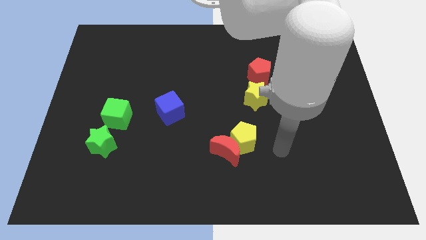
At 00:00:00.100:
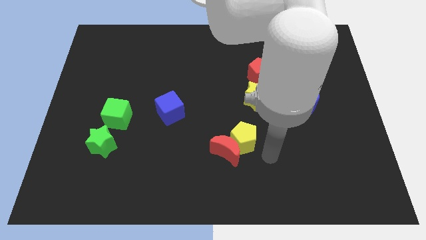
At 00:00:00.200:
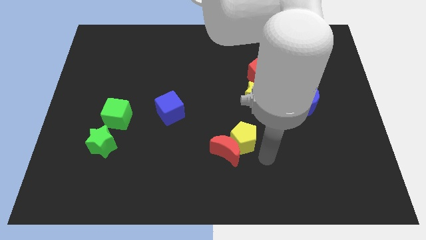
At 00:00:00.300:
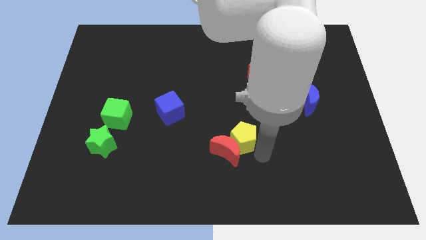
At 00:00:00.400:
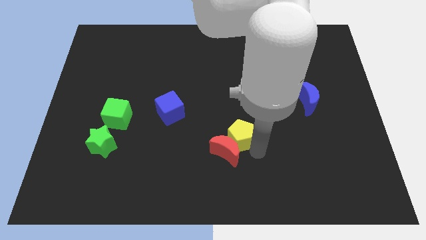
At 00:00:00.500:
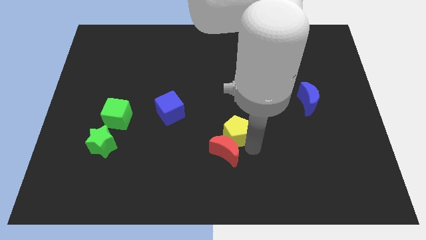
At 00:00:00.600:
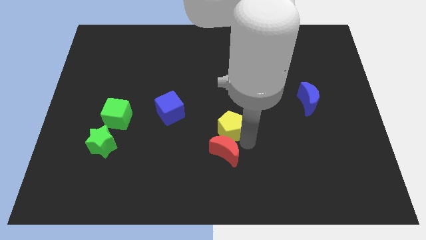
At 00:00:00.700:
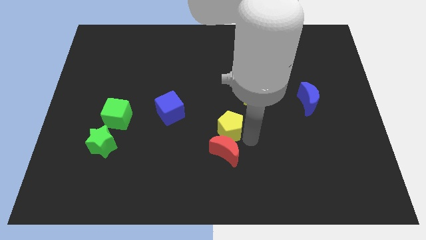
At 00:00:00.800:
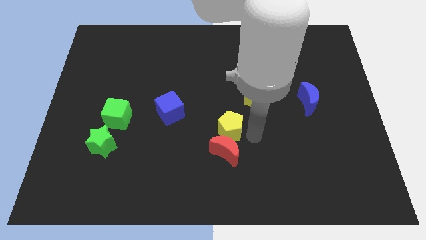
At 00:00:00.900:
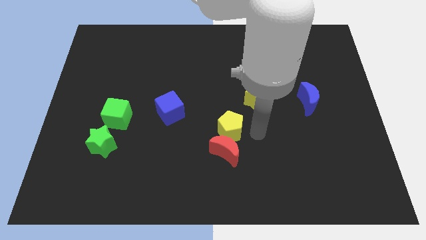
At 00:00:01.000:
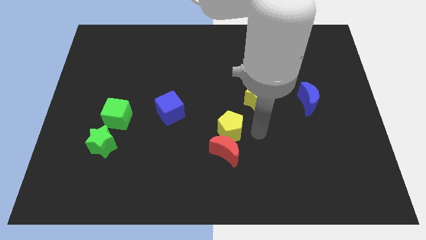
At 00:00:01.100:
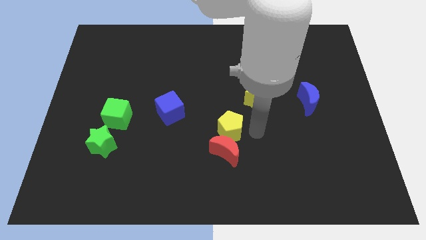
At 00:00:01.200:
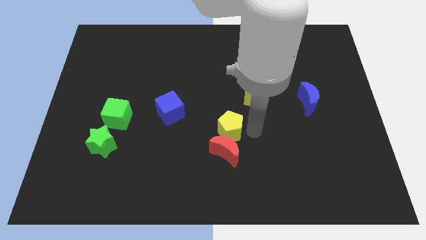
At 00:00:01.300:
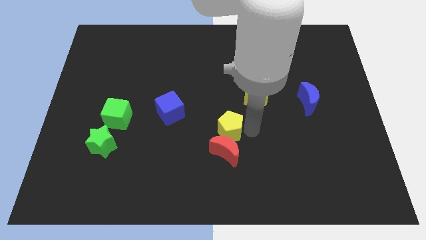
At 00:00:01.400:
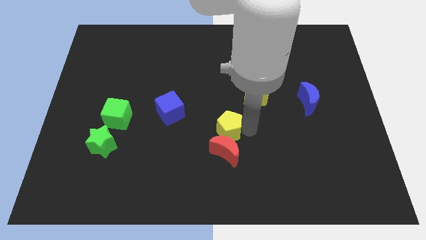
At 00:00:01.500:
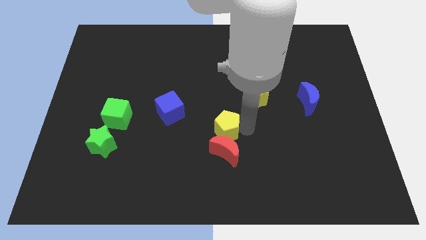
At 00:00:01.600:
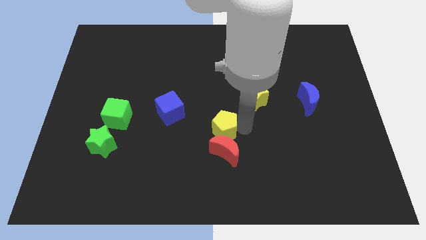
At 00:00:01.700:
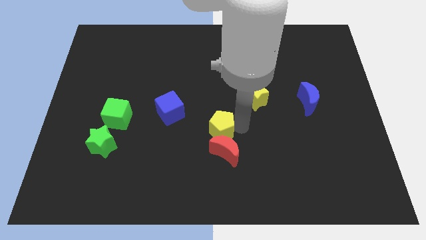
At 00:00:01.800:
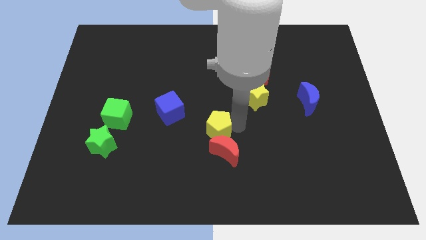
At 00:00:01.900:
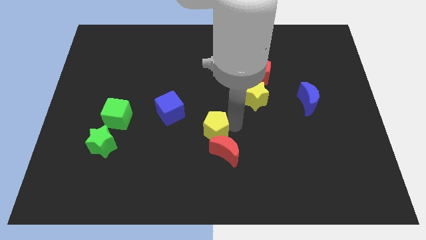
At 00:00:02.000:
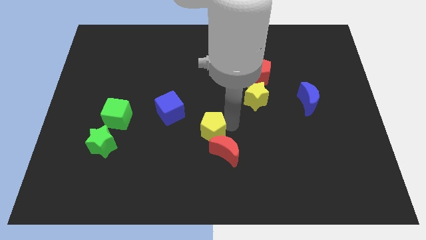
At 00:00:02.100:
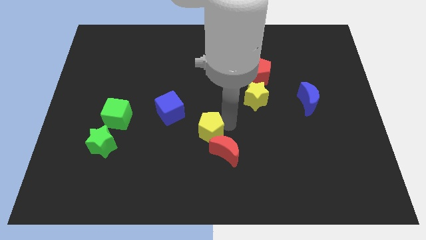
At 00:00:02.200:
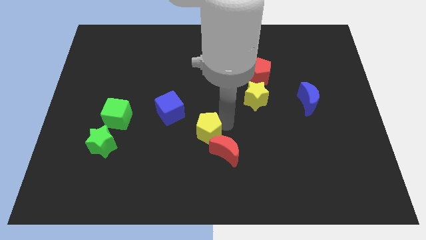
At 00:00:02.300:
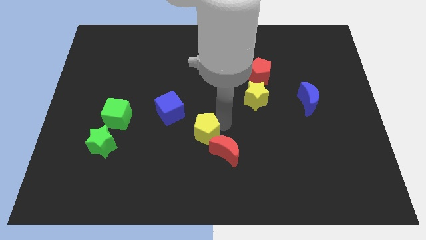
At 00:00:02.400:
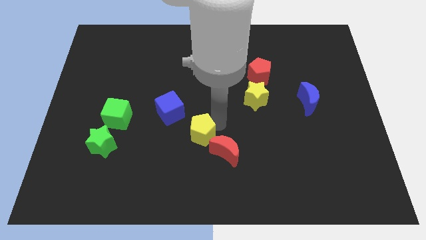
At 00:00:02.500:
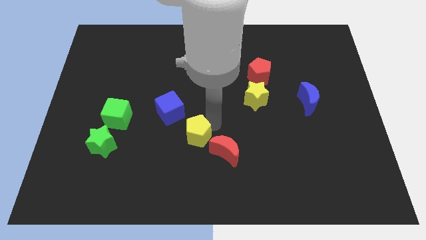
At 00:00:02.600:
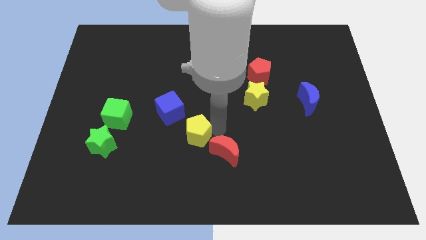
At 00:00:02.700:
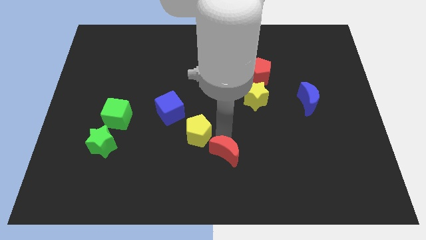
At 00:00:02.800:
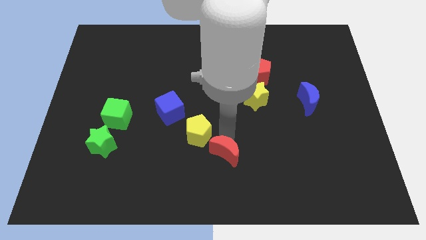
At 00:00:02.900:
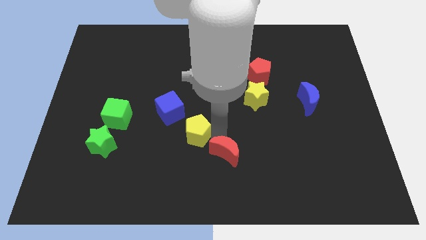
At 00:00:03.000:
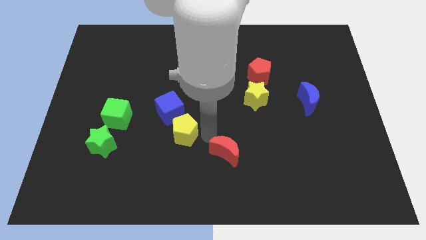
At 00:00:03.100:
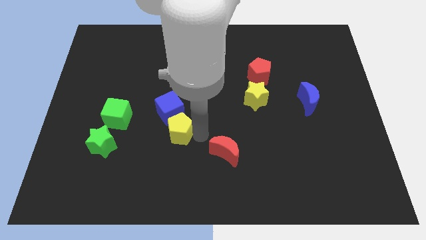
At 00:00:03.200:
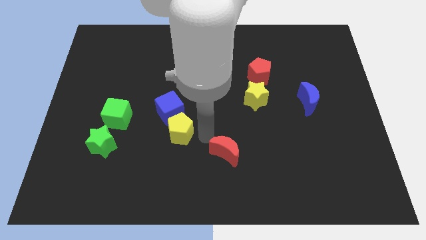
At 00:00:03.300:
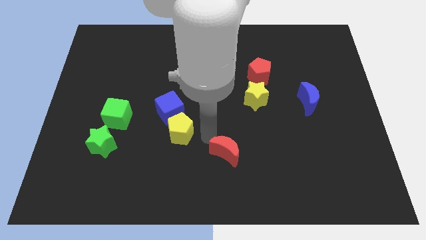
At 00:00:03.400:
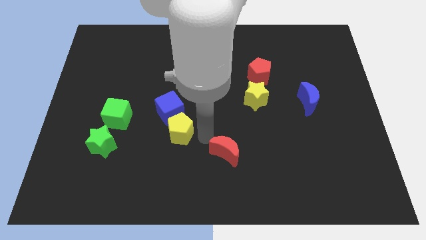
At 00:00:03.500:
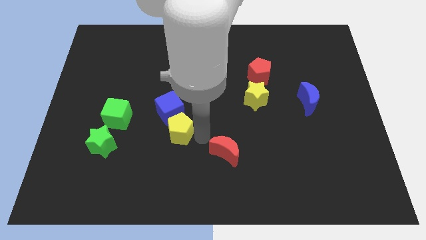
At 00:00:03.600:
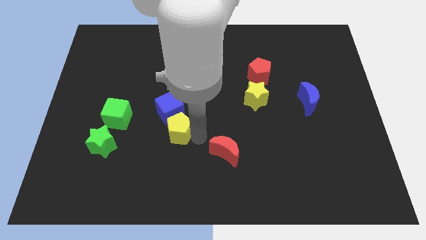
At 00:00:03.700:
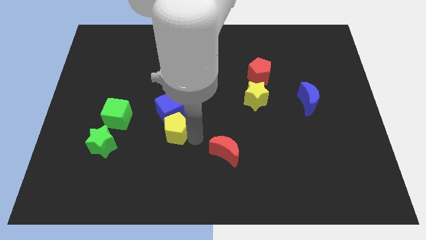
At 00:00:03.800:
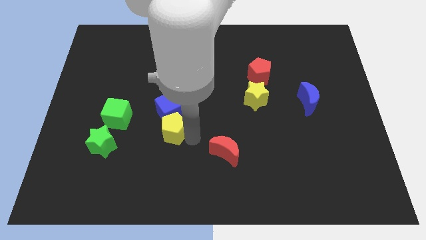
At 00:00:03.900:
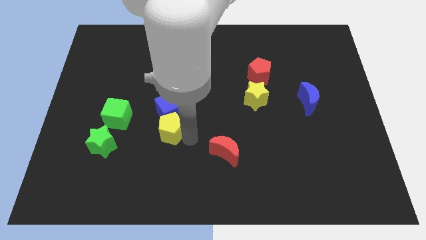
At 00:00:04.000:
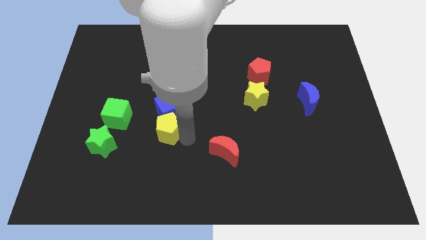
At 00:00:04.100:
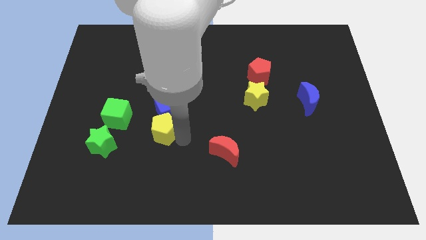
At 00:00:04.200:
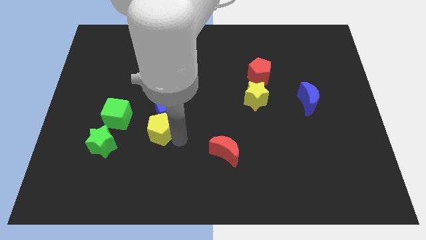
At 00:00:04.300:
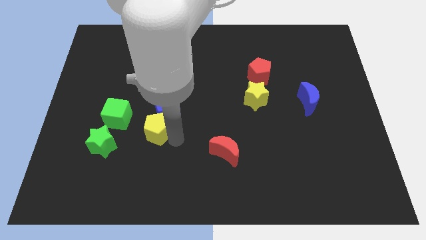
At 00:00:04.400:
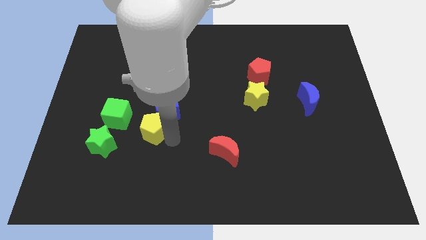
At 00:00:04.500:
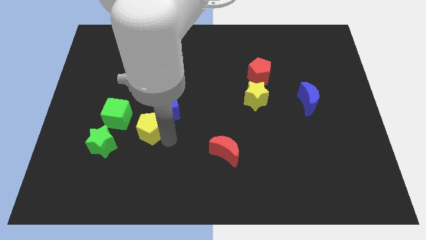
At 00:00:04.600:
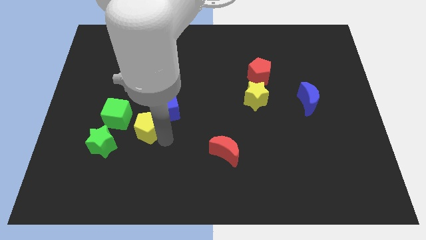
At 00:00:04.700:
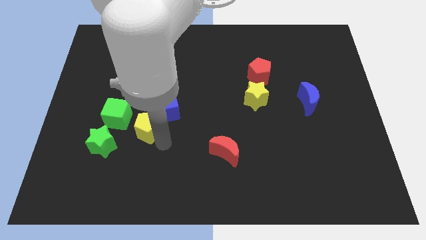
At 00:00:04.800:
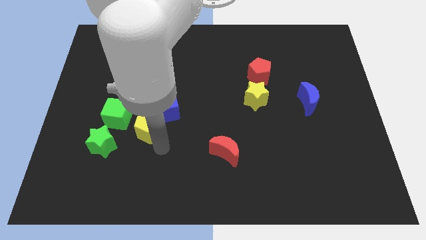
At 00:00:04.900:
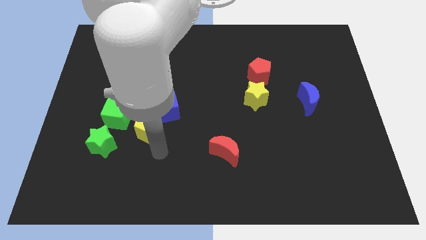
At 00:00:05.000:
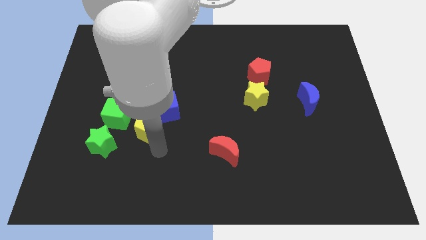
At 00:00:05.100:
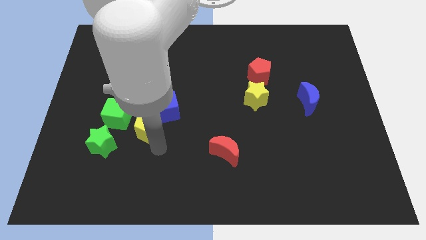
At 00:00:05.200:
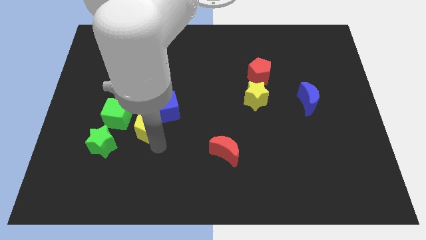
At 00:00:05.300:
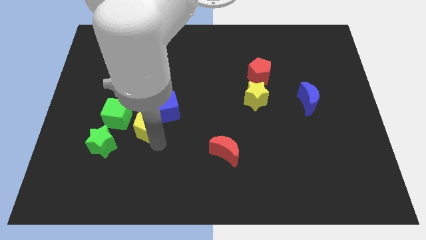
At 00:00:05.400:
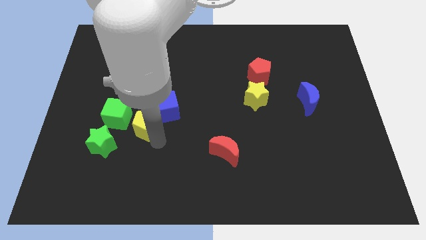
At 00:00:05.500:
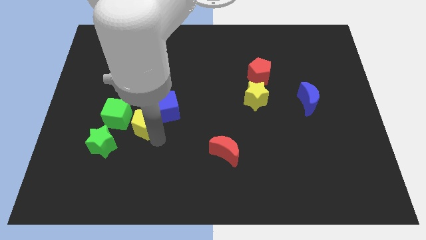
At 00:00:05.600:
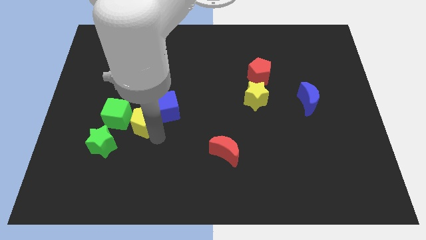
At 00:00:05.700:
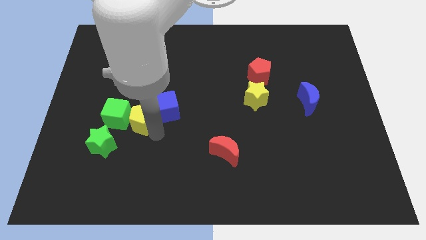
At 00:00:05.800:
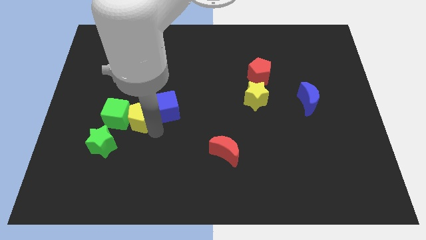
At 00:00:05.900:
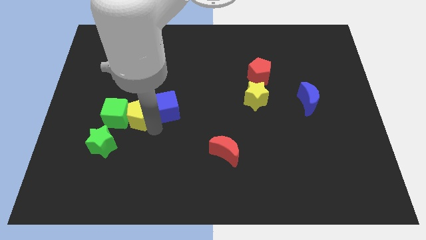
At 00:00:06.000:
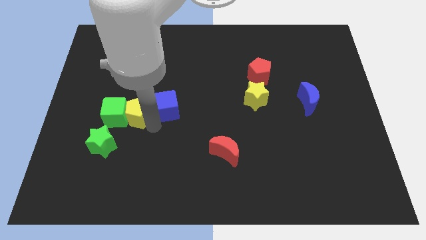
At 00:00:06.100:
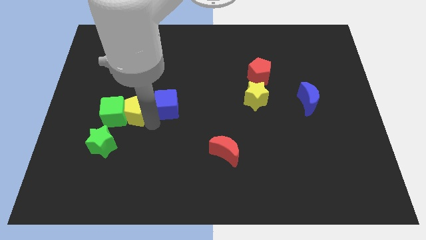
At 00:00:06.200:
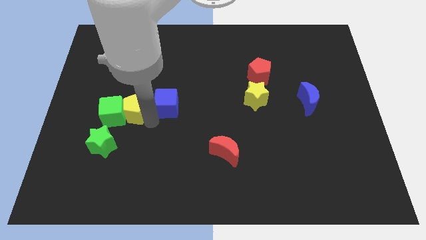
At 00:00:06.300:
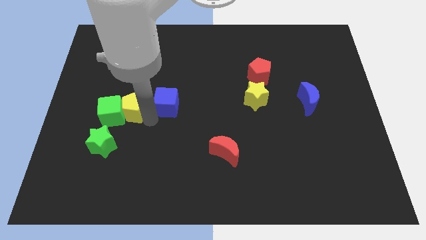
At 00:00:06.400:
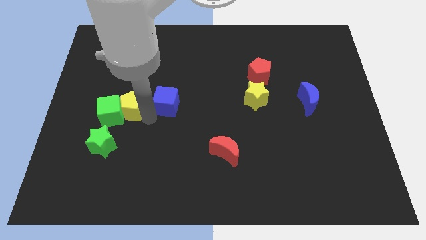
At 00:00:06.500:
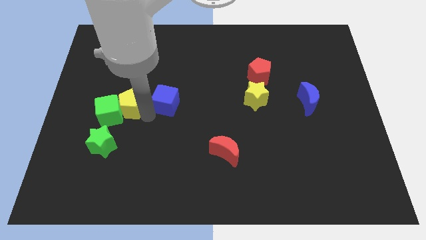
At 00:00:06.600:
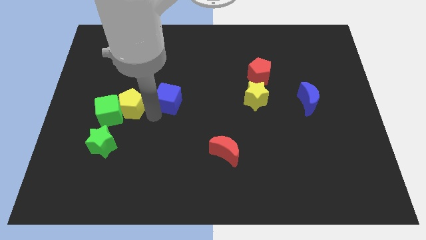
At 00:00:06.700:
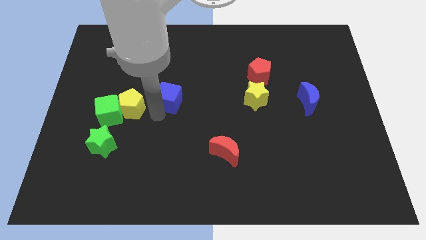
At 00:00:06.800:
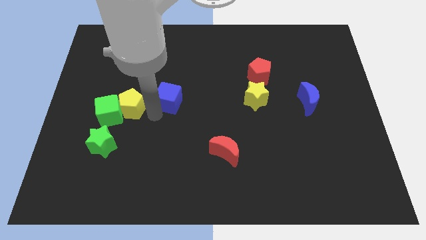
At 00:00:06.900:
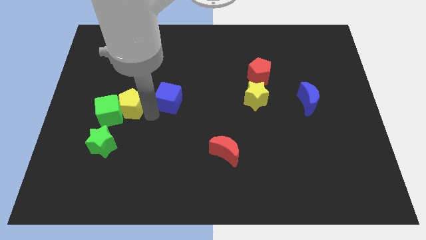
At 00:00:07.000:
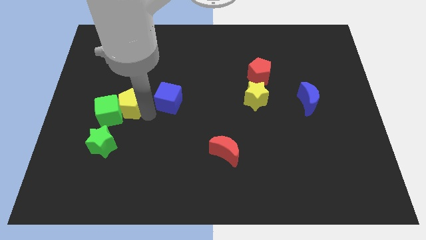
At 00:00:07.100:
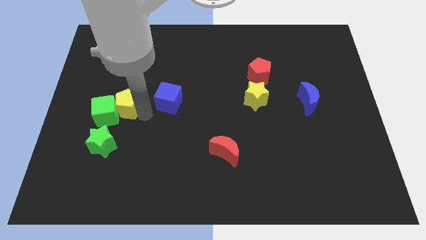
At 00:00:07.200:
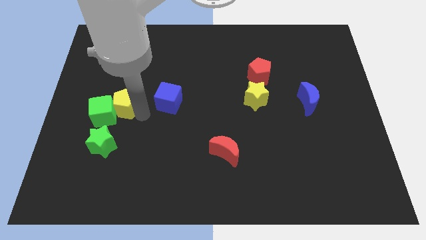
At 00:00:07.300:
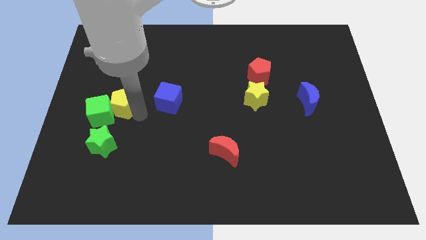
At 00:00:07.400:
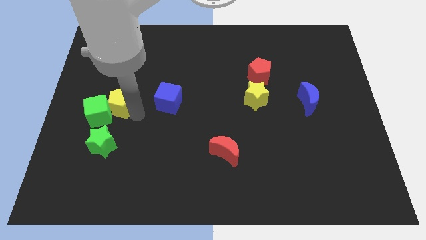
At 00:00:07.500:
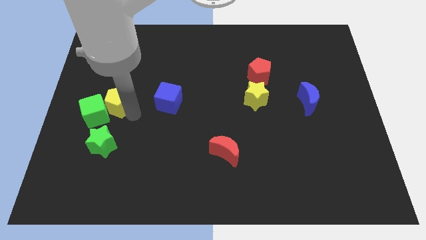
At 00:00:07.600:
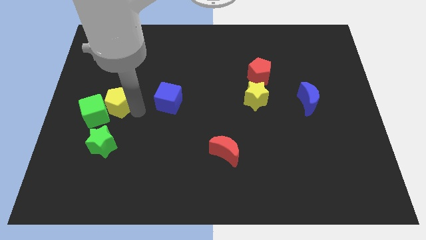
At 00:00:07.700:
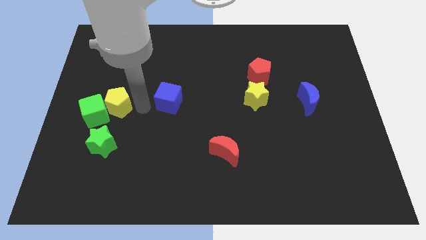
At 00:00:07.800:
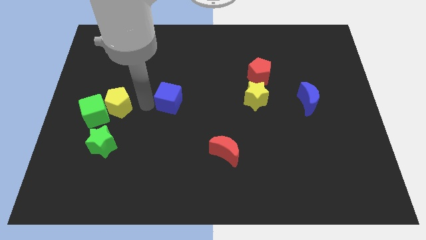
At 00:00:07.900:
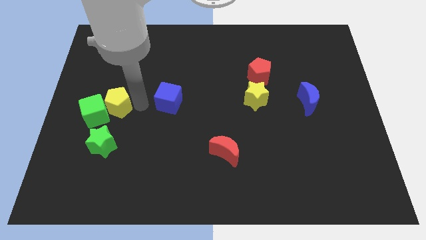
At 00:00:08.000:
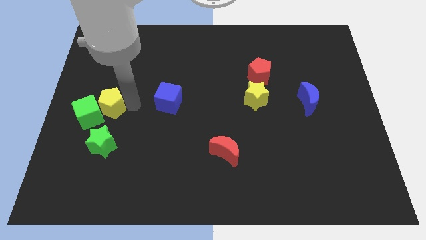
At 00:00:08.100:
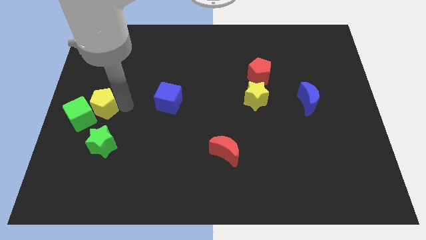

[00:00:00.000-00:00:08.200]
put the yellow pentagon to the left side
